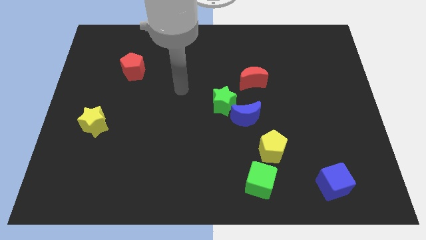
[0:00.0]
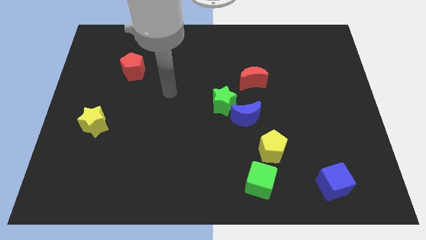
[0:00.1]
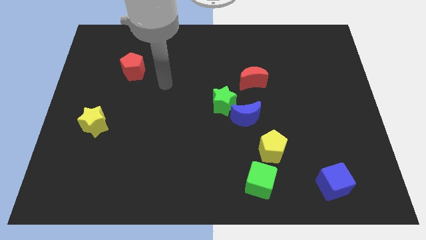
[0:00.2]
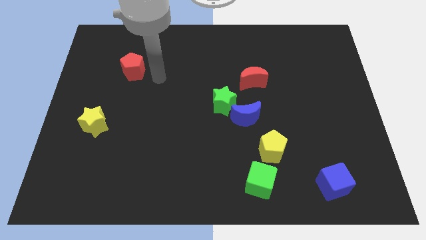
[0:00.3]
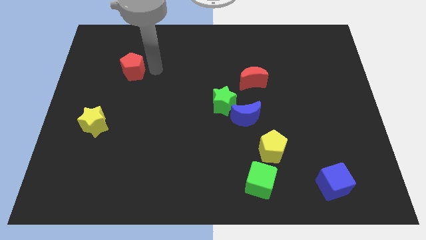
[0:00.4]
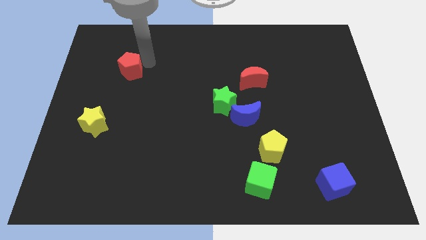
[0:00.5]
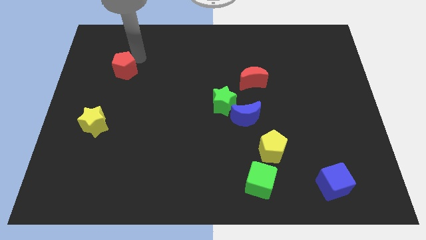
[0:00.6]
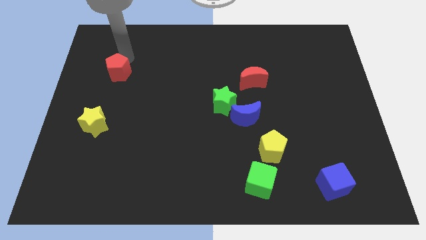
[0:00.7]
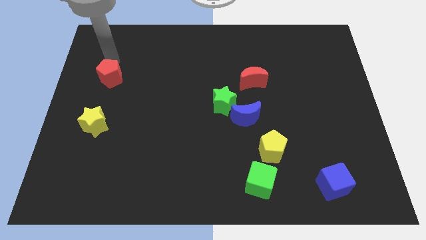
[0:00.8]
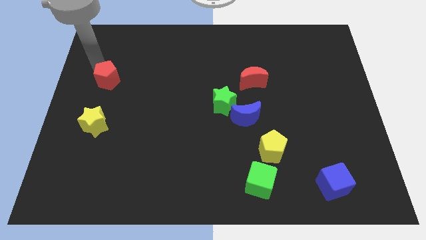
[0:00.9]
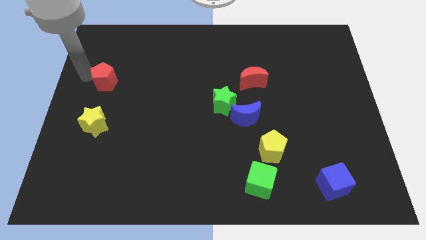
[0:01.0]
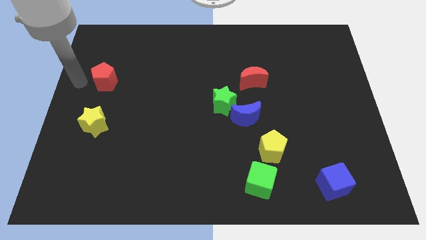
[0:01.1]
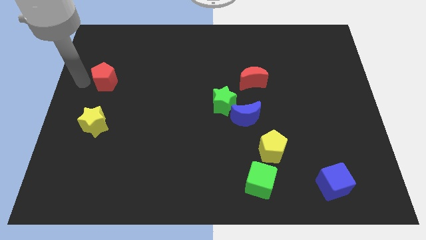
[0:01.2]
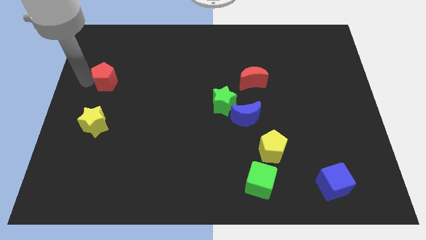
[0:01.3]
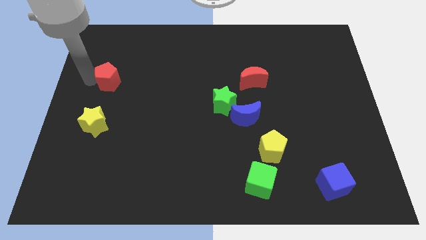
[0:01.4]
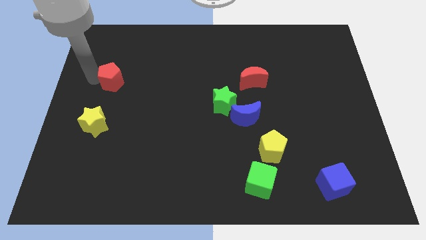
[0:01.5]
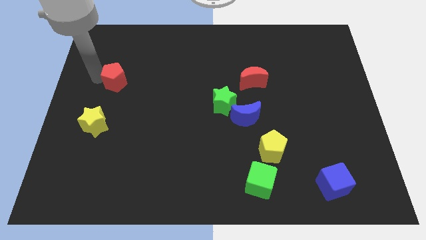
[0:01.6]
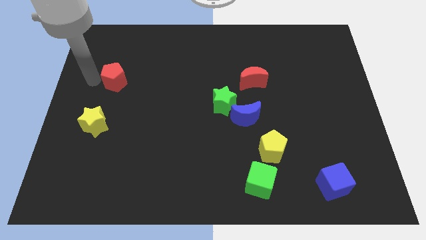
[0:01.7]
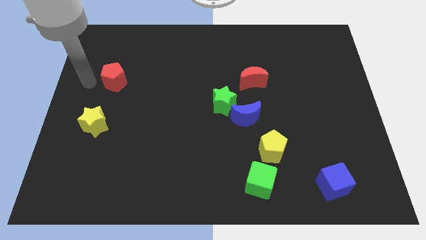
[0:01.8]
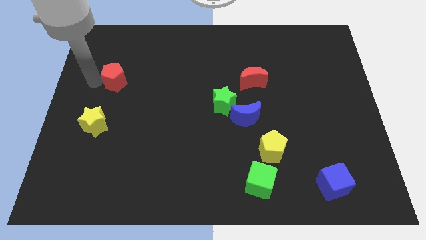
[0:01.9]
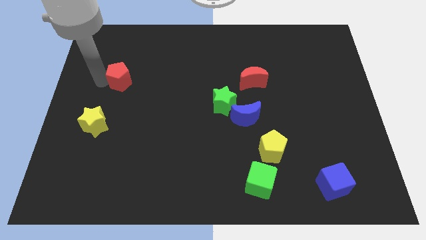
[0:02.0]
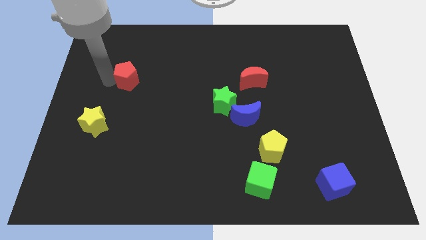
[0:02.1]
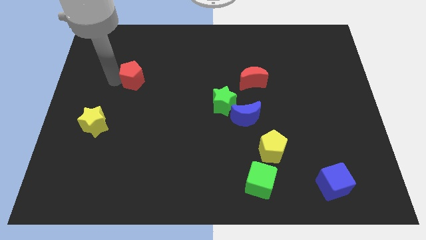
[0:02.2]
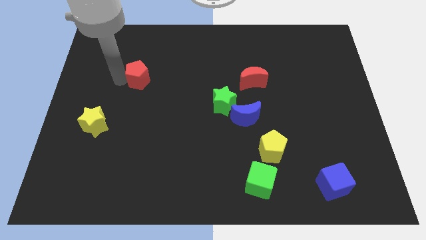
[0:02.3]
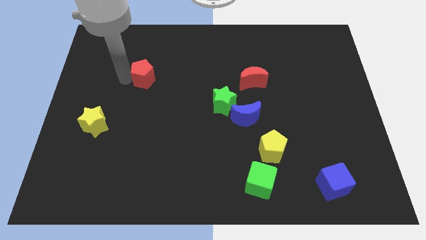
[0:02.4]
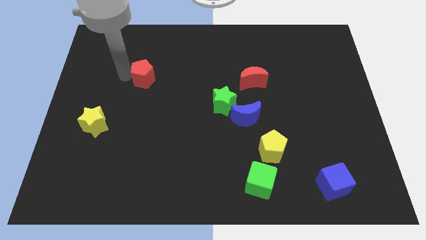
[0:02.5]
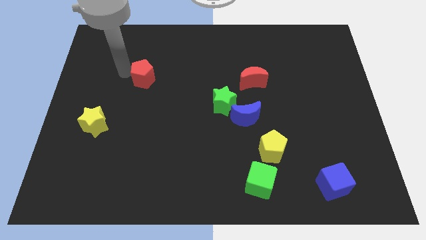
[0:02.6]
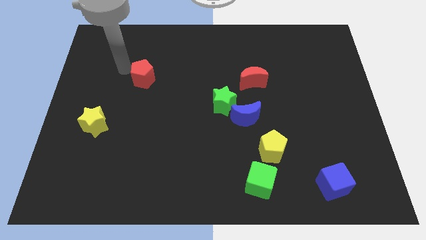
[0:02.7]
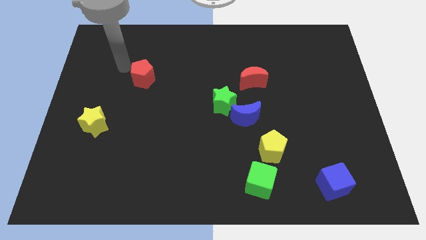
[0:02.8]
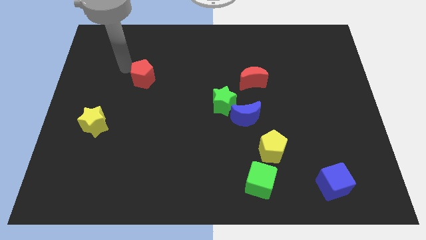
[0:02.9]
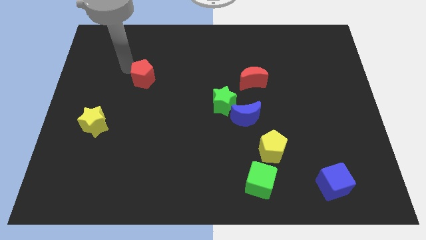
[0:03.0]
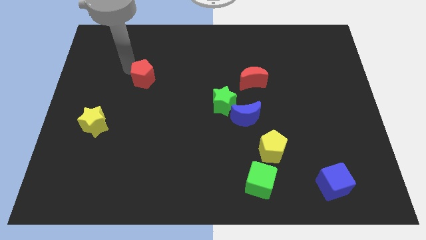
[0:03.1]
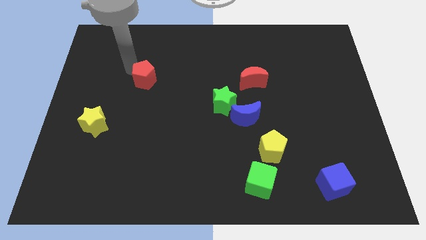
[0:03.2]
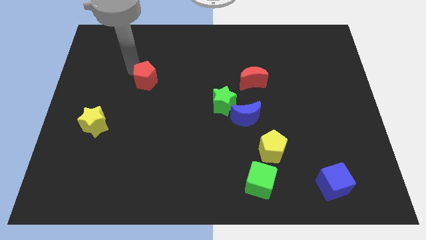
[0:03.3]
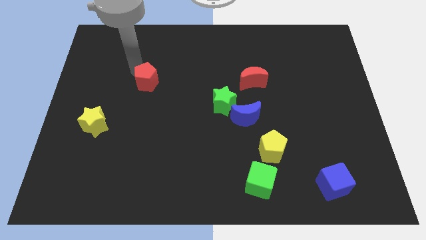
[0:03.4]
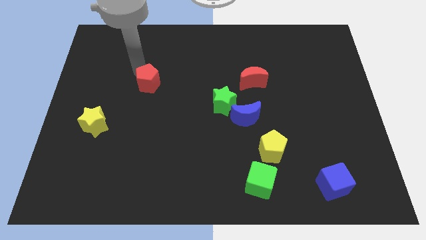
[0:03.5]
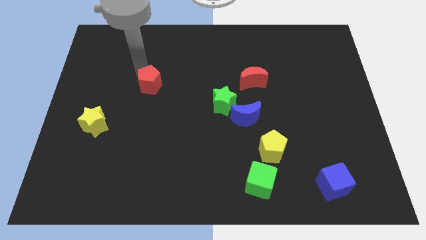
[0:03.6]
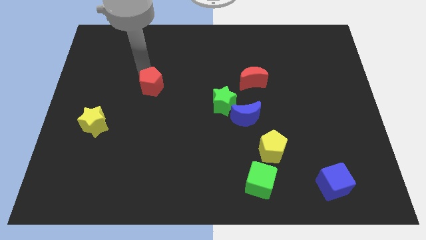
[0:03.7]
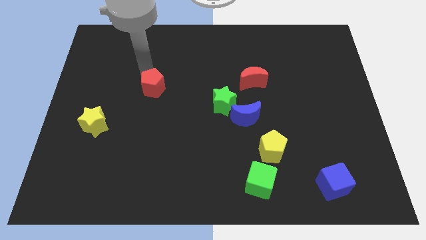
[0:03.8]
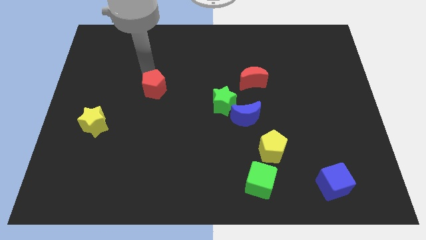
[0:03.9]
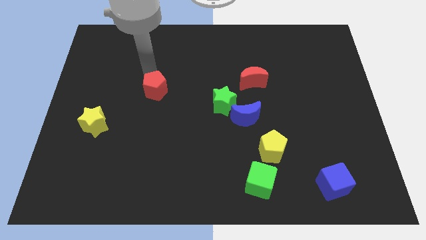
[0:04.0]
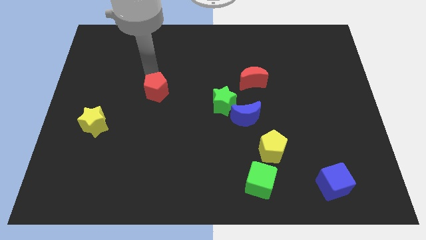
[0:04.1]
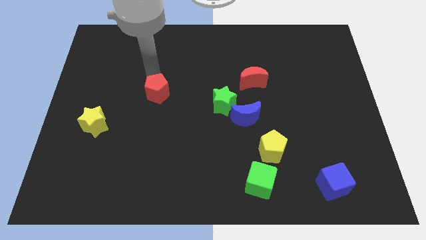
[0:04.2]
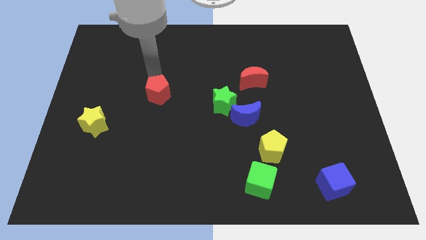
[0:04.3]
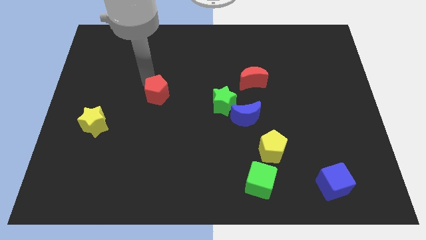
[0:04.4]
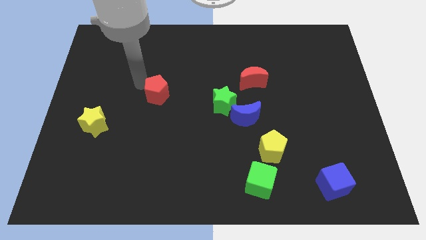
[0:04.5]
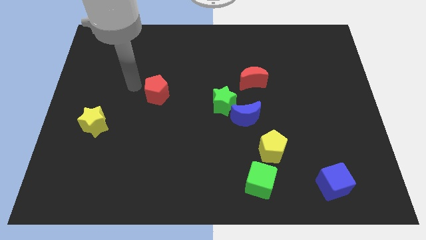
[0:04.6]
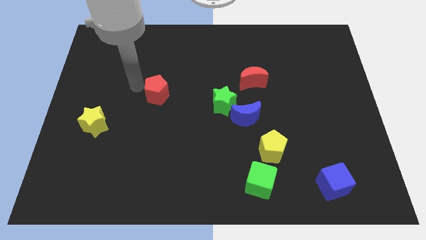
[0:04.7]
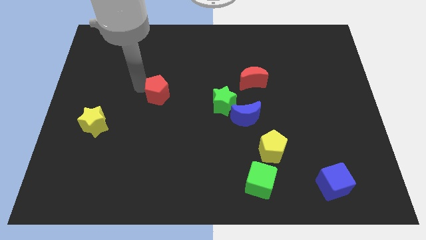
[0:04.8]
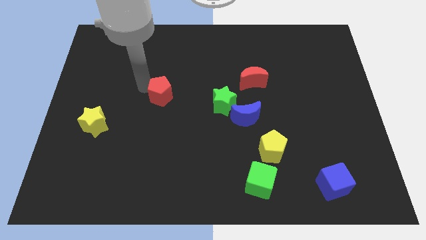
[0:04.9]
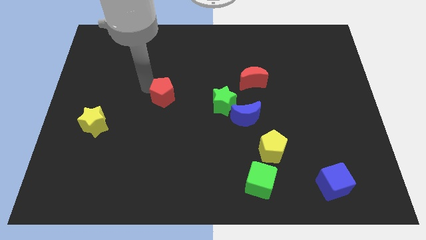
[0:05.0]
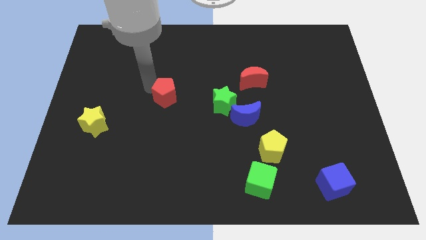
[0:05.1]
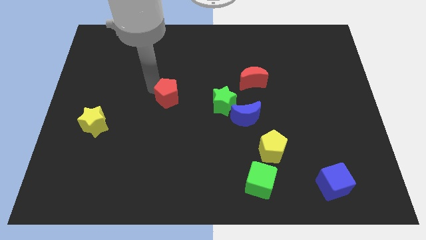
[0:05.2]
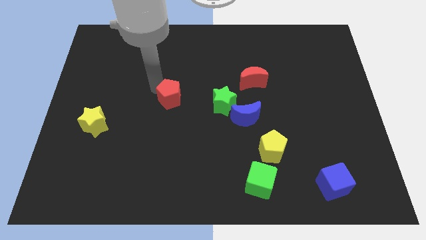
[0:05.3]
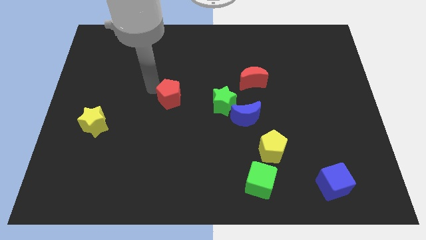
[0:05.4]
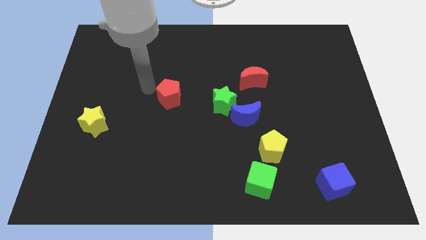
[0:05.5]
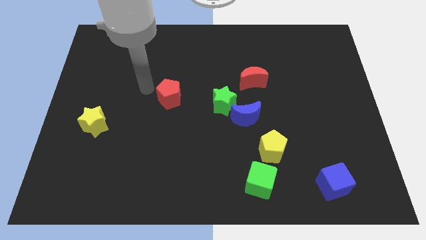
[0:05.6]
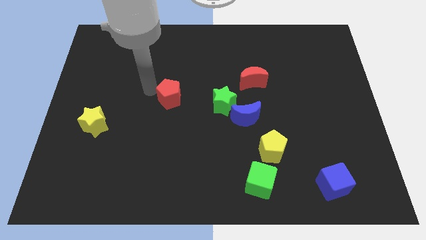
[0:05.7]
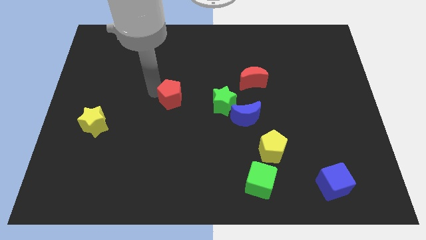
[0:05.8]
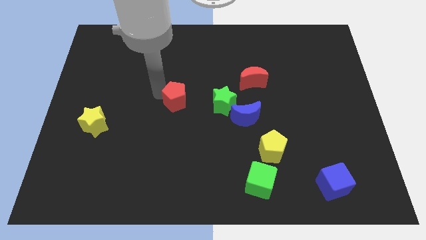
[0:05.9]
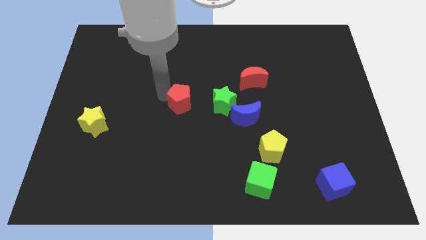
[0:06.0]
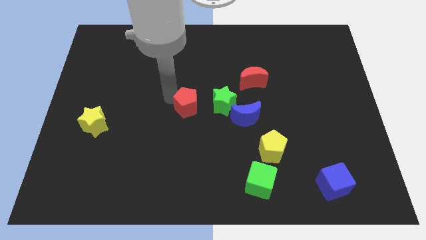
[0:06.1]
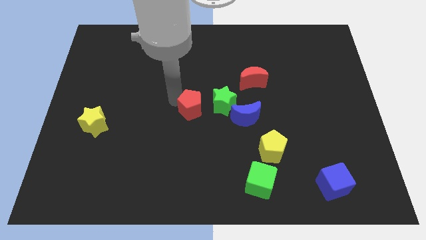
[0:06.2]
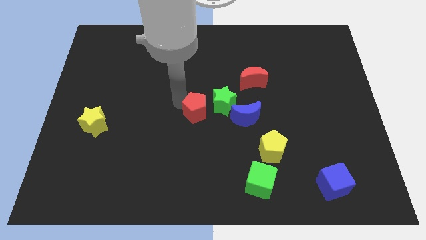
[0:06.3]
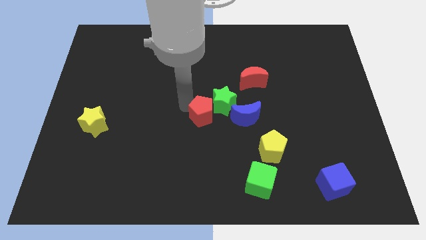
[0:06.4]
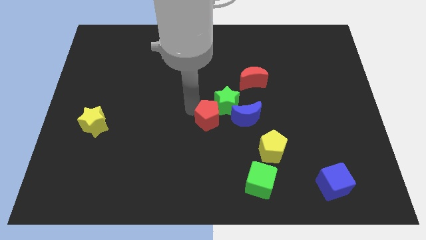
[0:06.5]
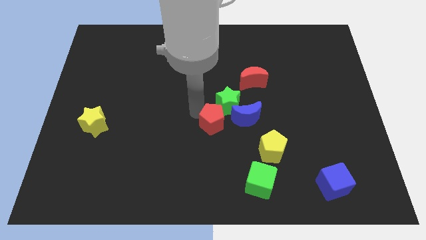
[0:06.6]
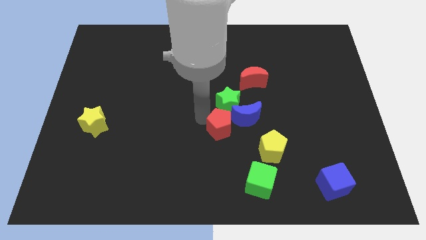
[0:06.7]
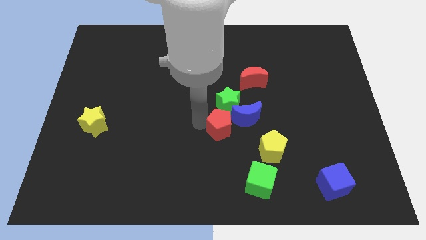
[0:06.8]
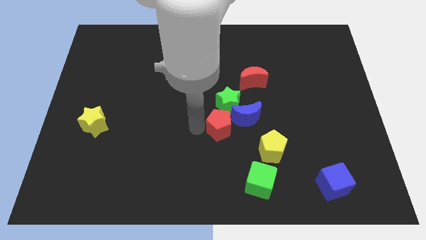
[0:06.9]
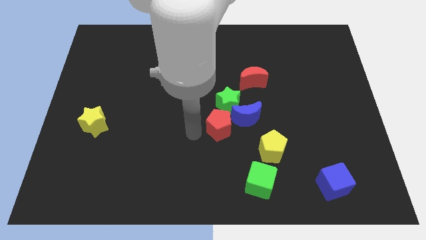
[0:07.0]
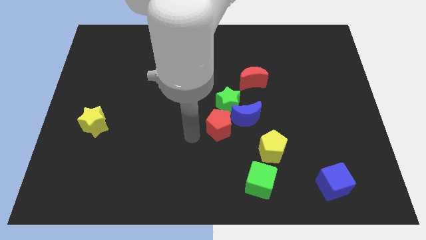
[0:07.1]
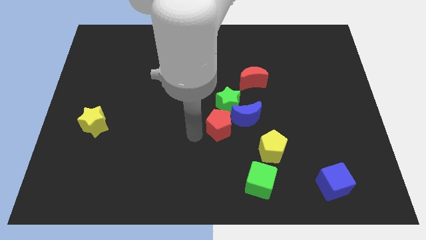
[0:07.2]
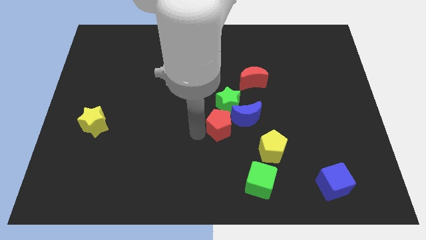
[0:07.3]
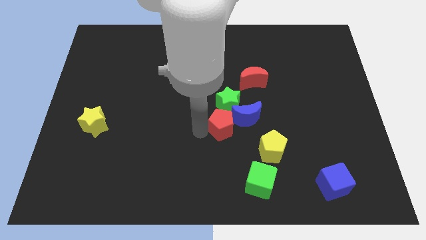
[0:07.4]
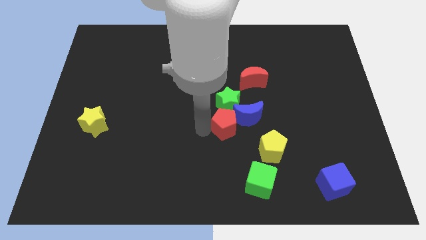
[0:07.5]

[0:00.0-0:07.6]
slide the red pentagon next to the blue moon
